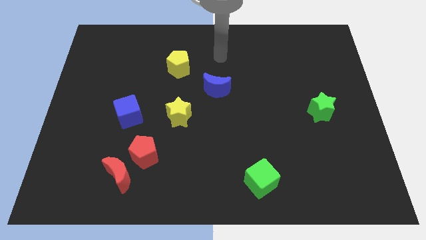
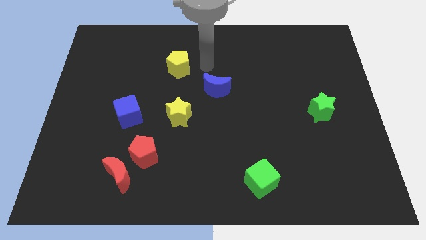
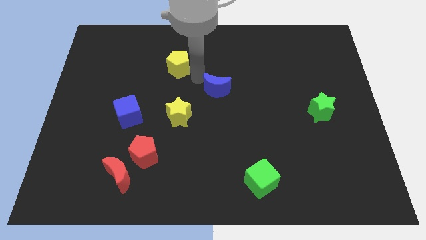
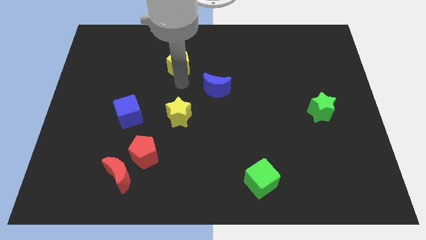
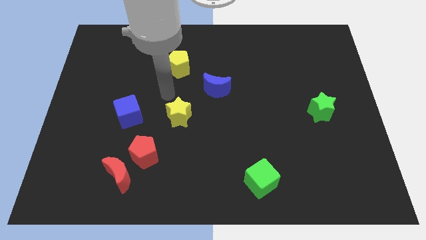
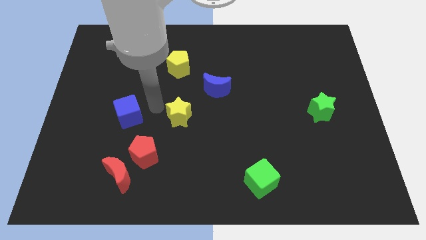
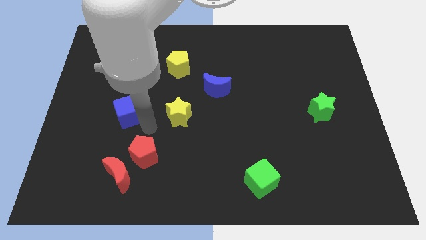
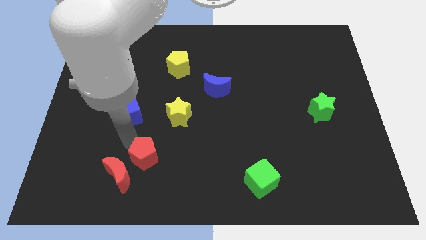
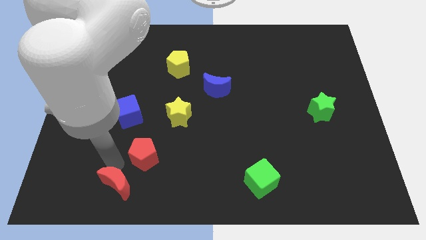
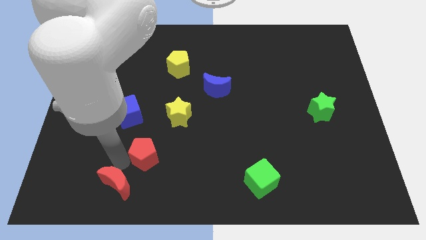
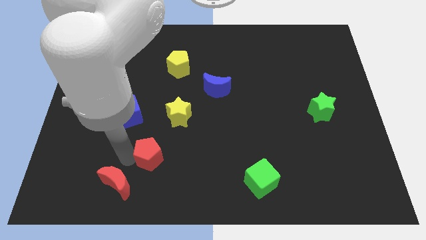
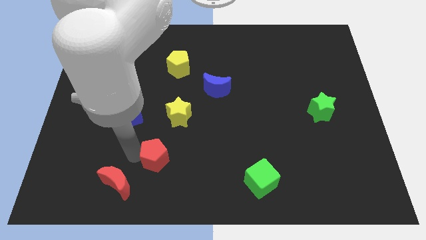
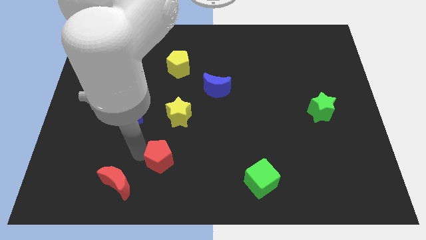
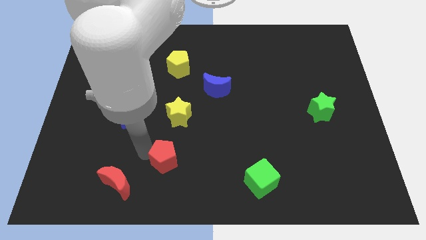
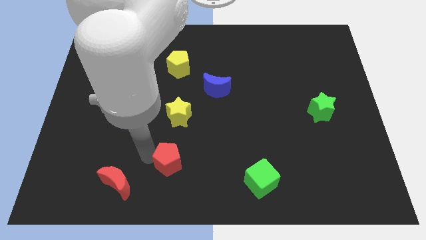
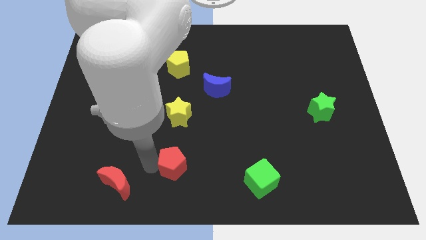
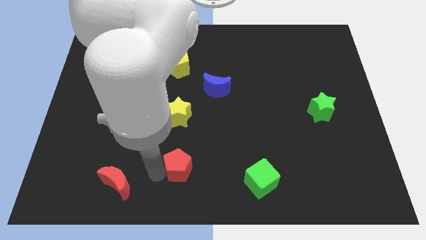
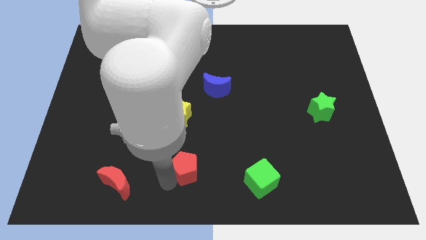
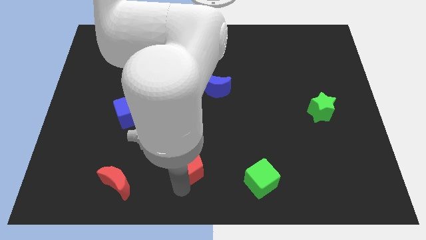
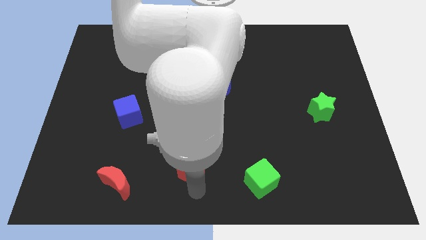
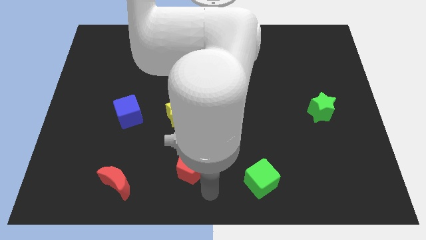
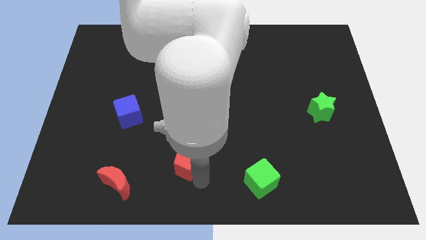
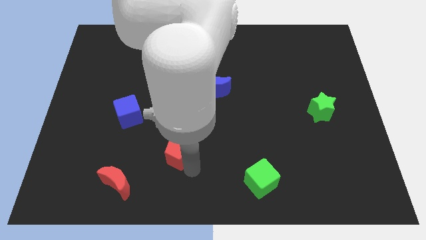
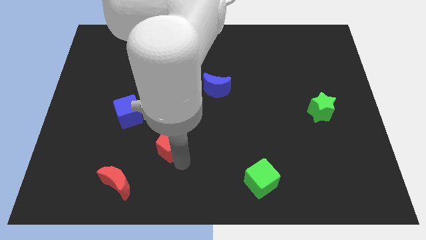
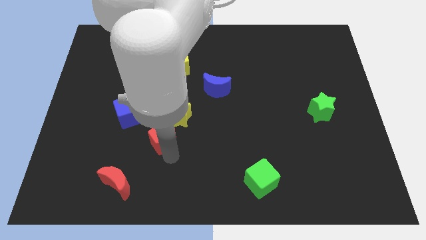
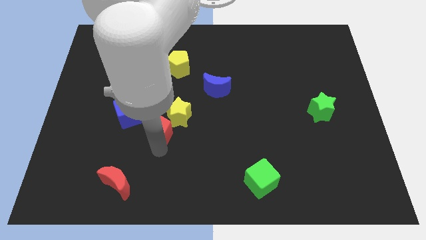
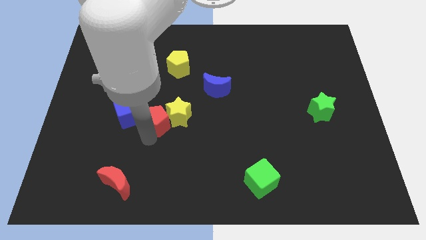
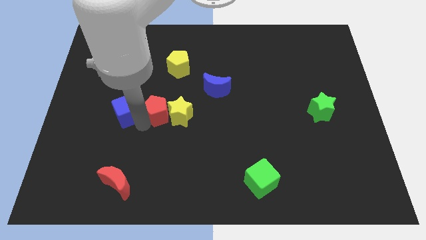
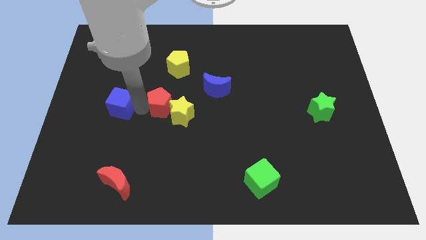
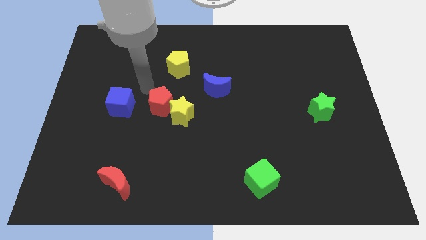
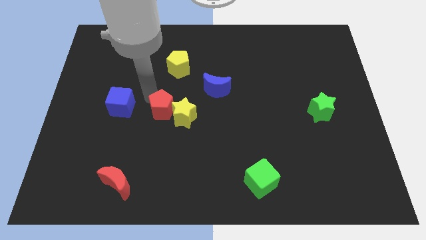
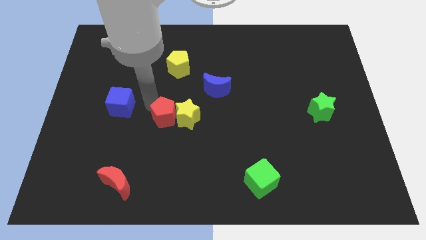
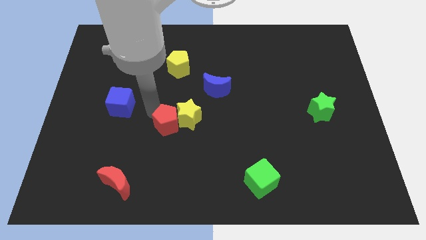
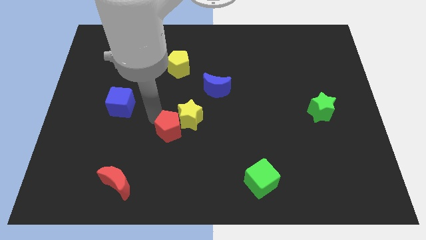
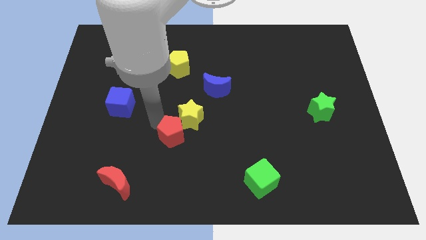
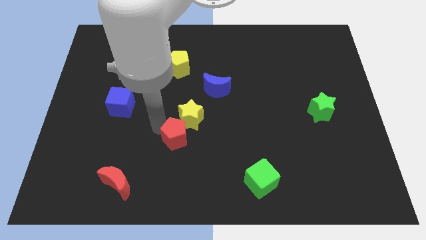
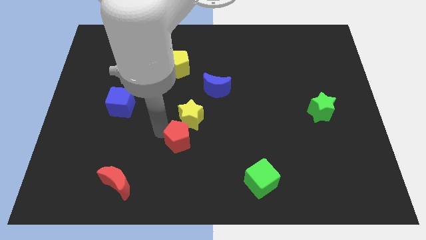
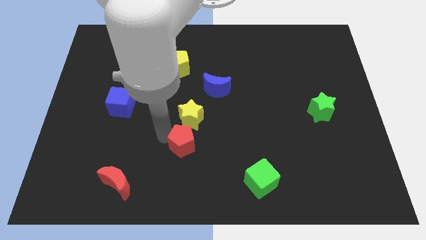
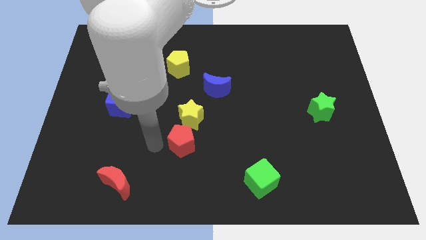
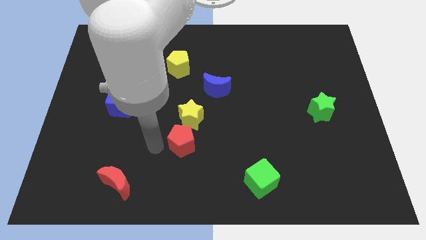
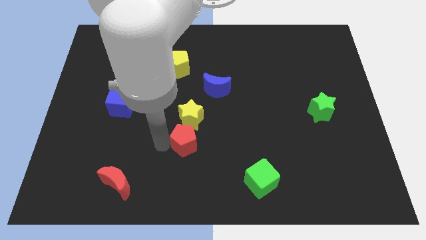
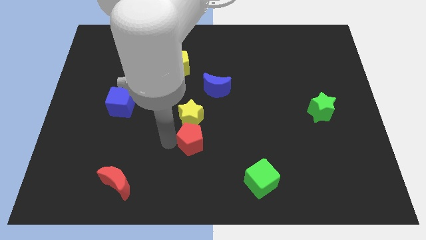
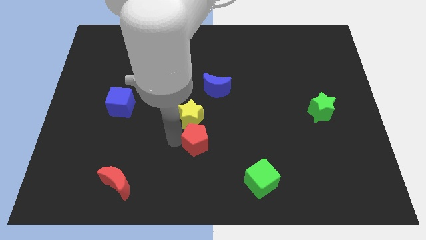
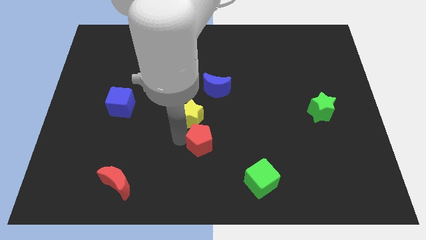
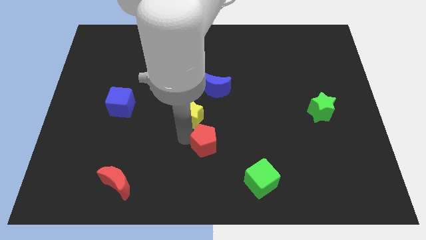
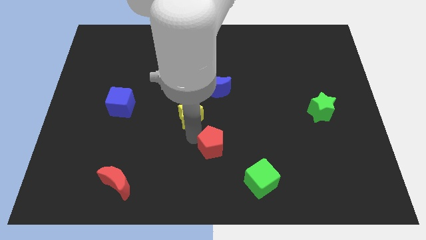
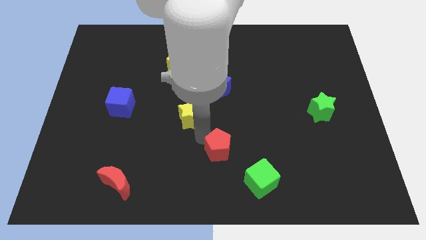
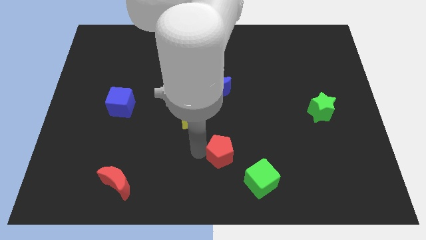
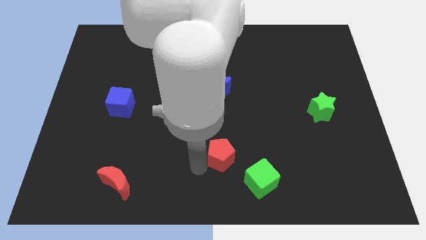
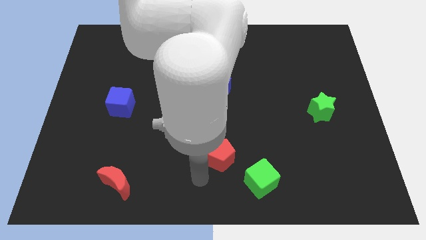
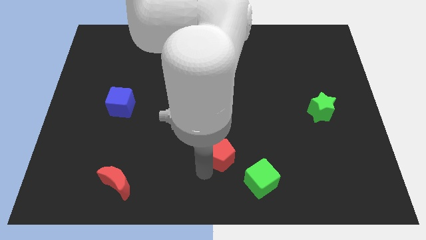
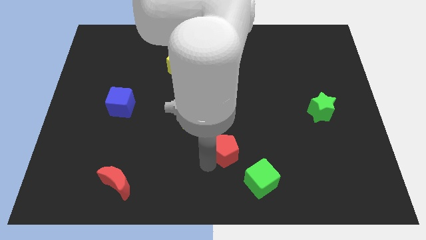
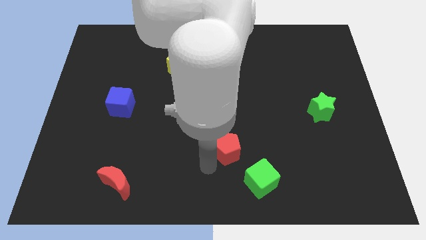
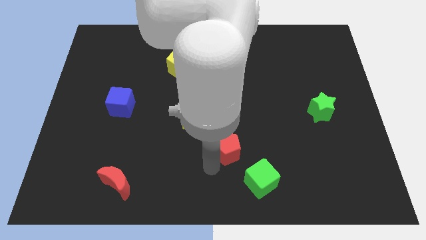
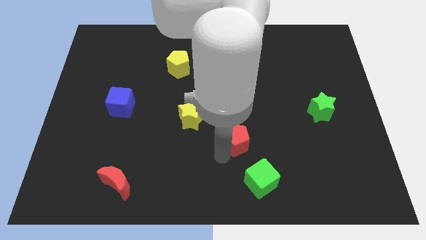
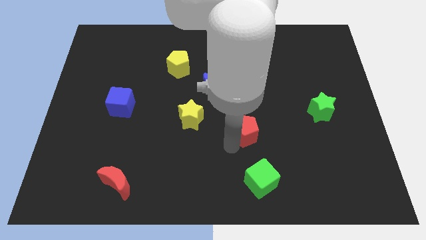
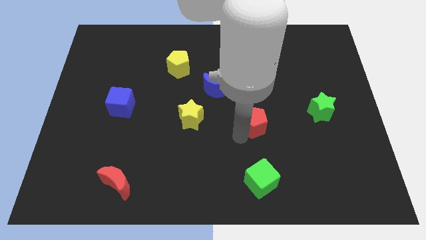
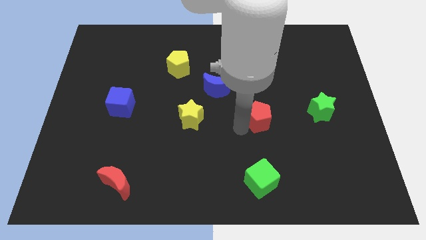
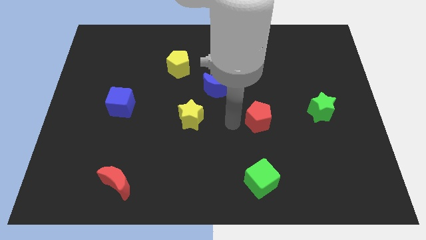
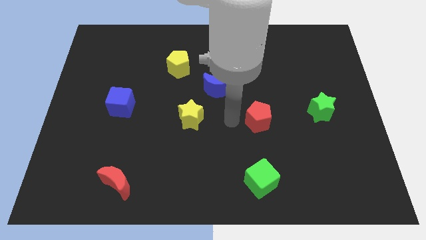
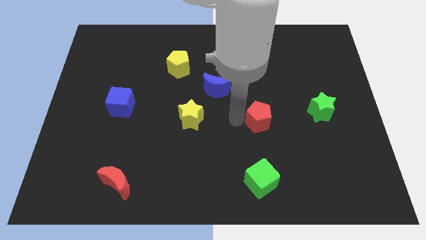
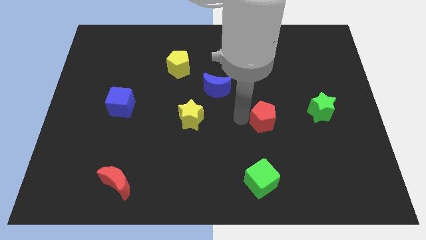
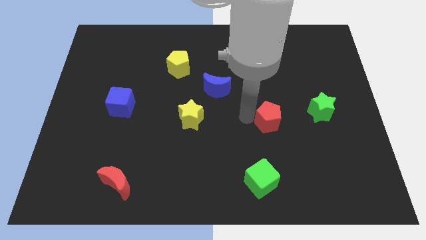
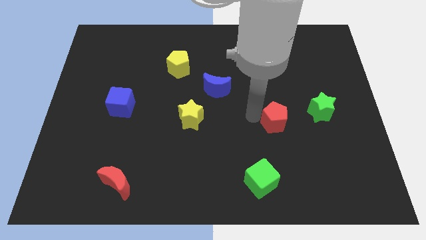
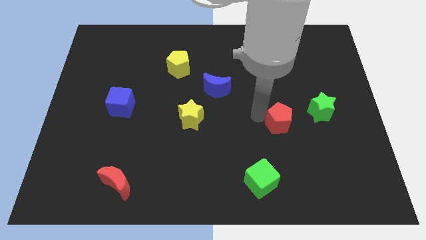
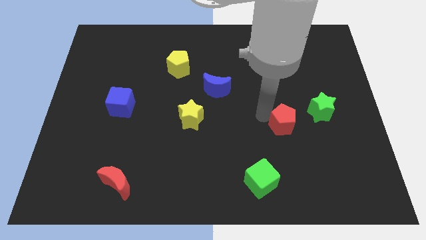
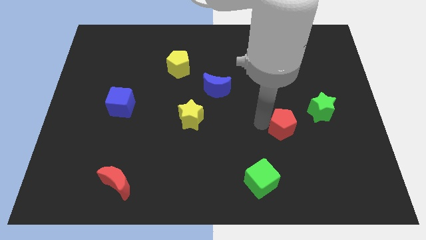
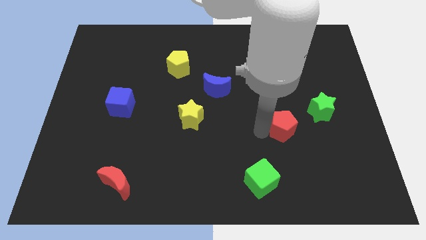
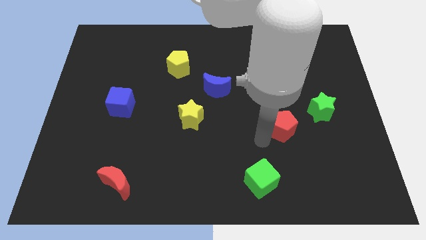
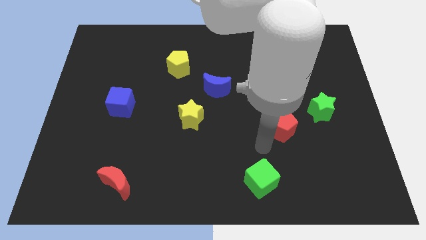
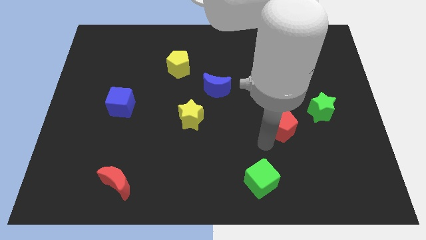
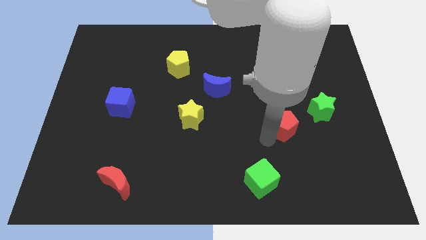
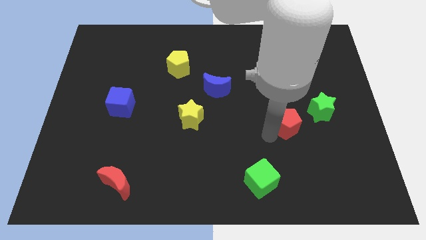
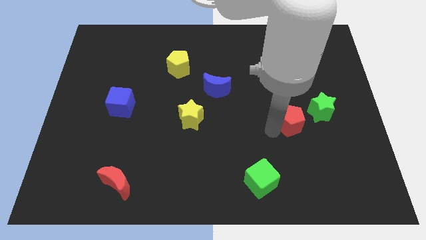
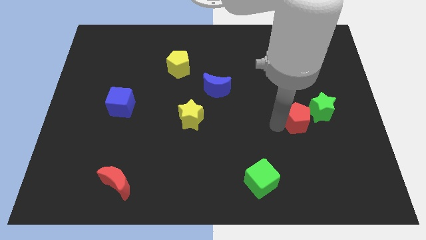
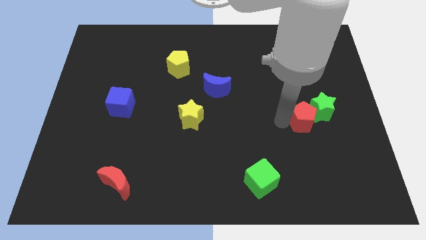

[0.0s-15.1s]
move the red pentagon next to the green star
